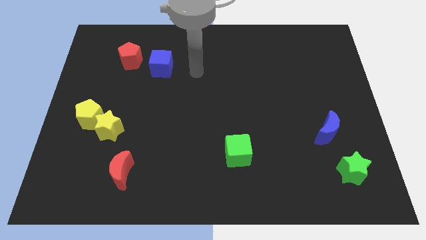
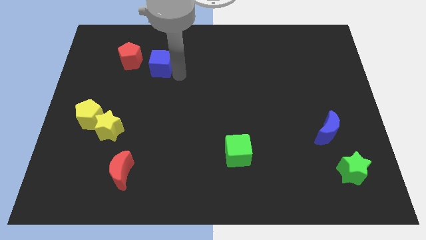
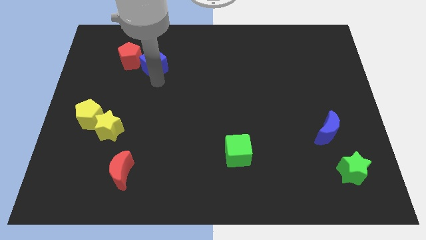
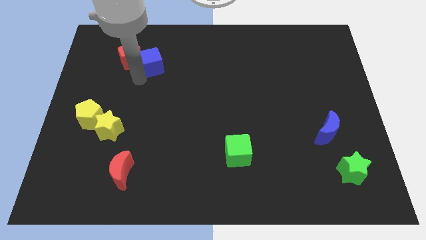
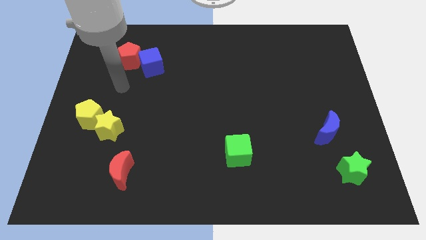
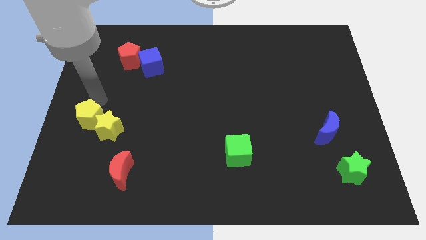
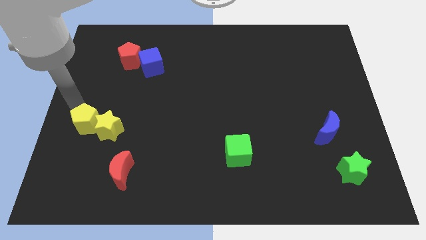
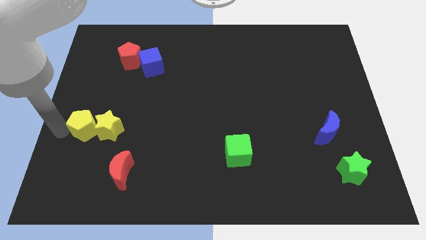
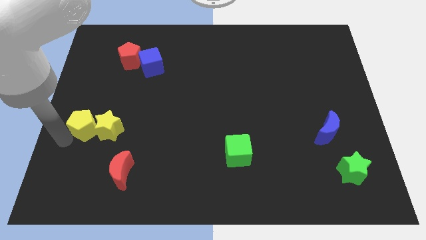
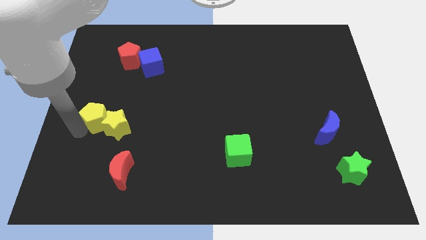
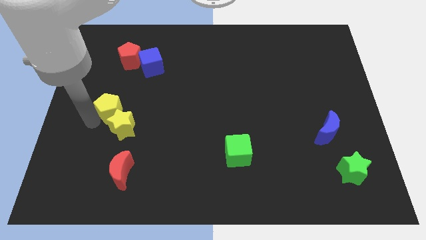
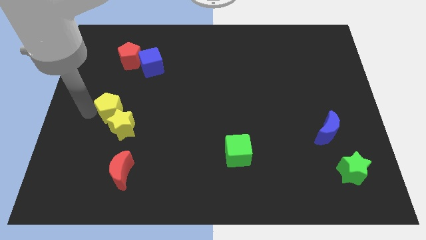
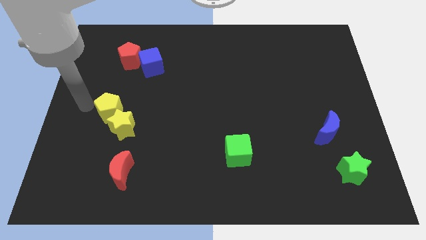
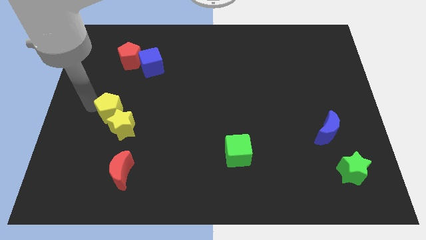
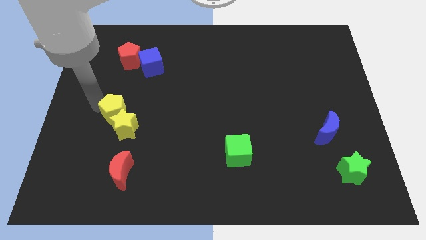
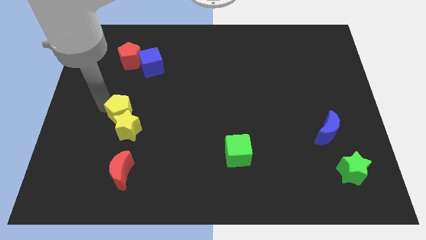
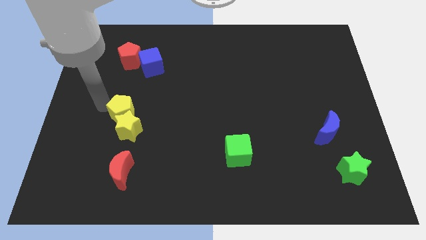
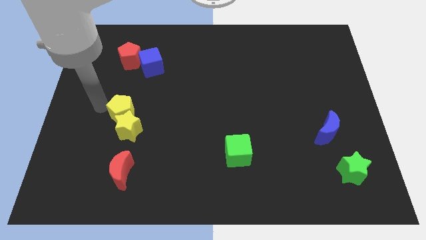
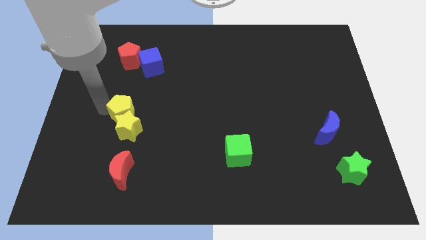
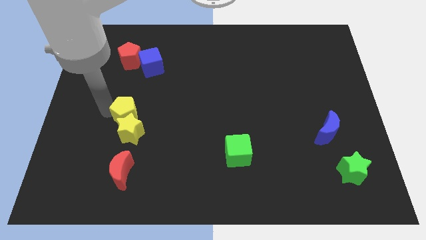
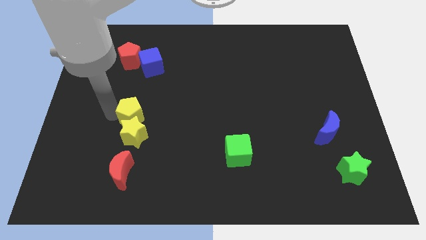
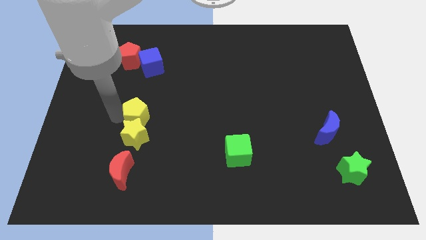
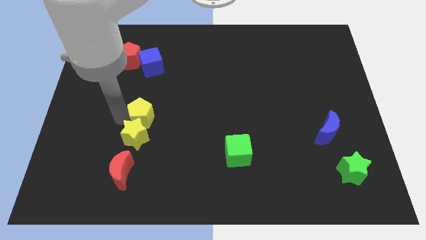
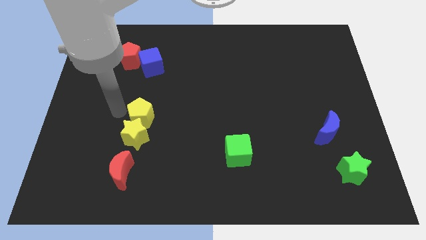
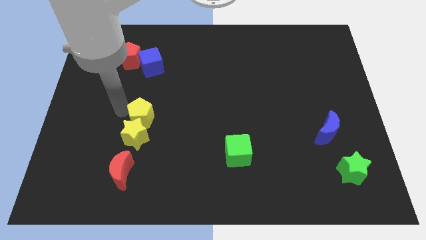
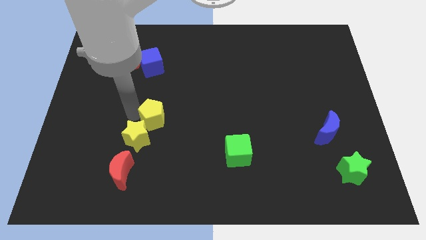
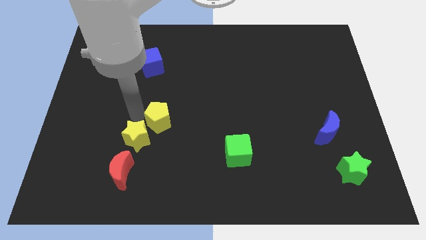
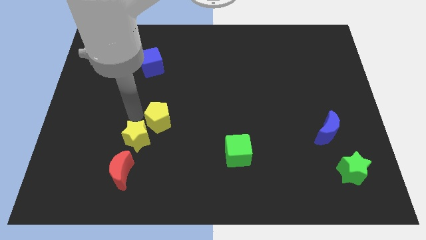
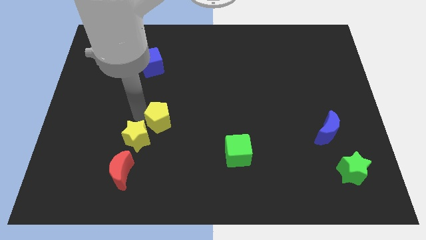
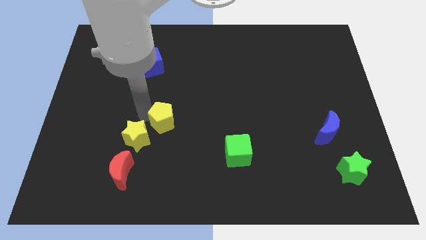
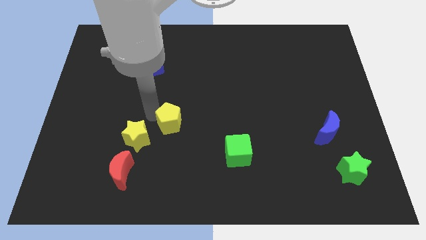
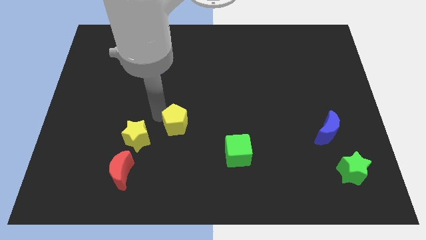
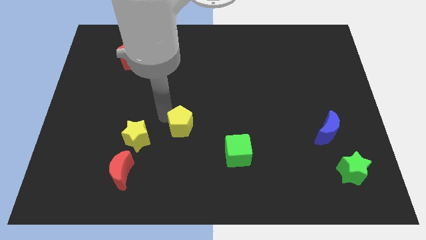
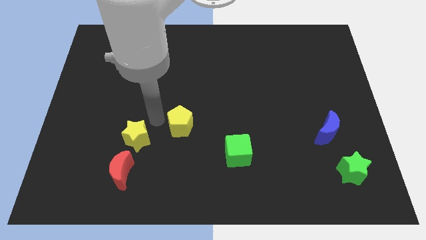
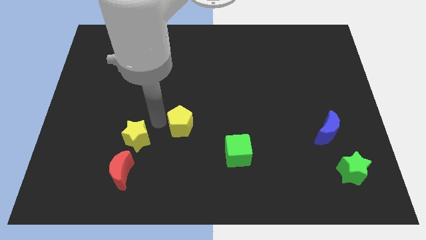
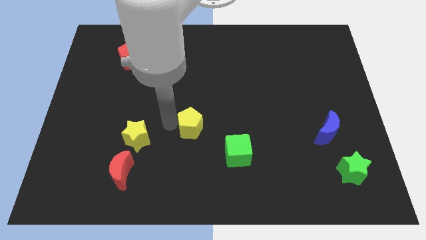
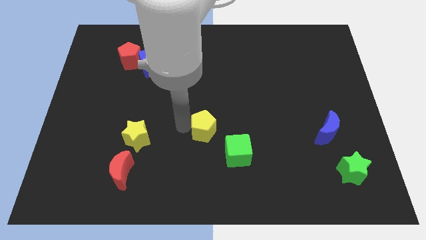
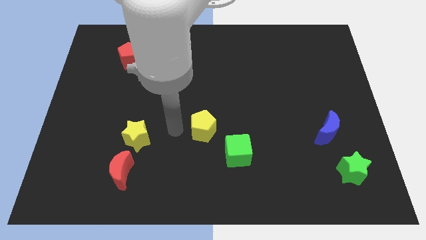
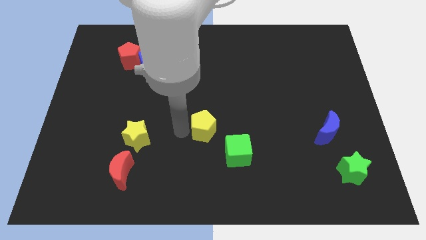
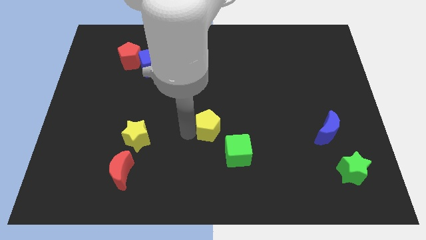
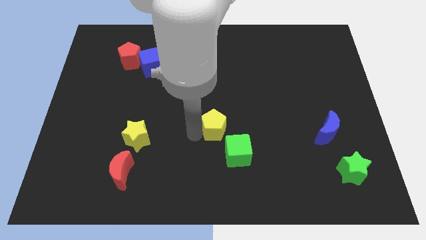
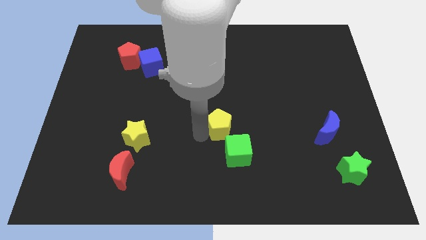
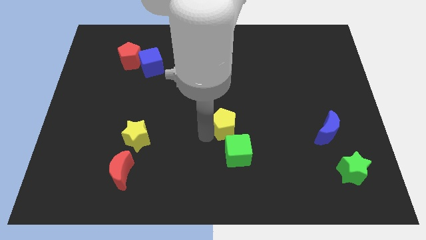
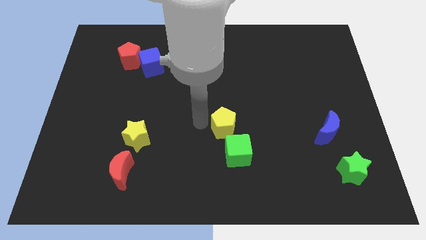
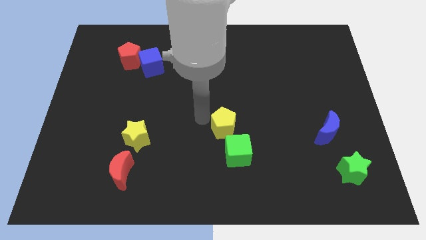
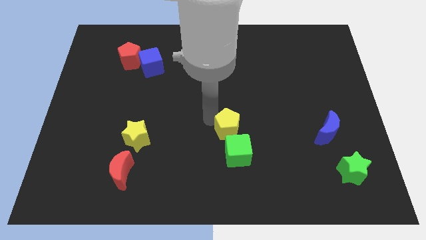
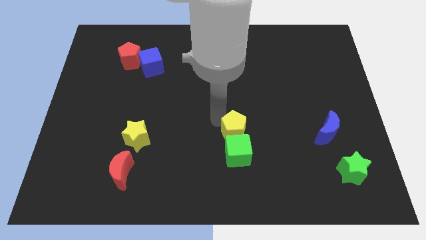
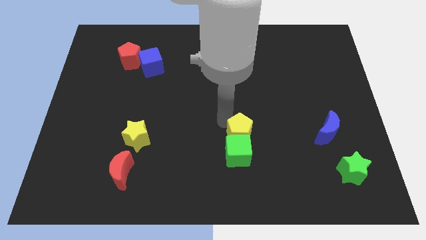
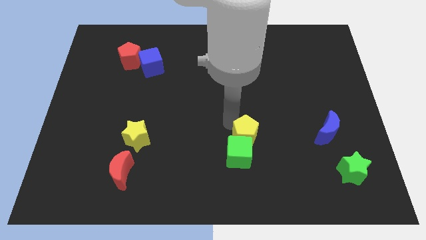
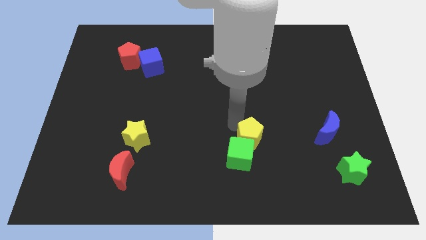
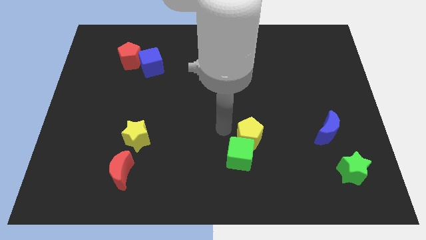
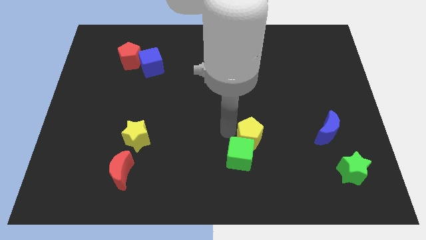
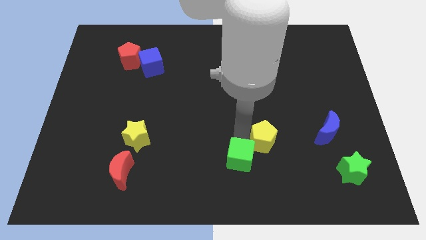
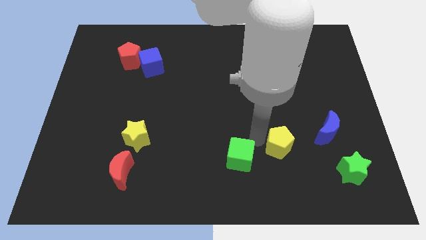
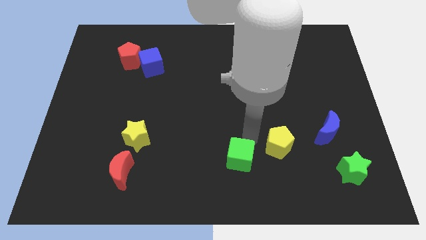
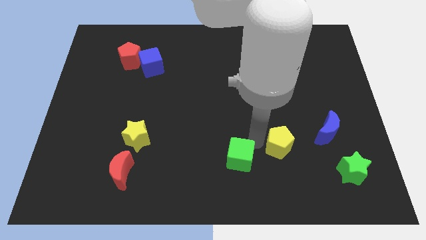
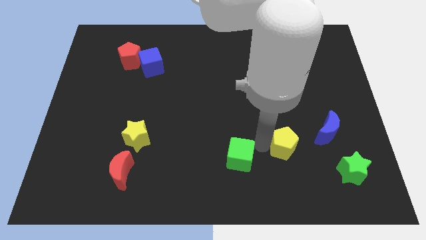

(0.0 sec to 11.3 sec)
put the yellow pentagon diagonally down and to the left of the blue moon

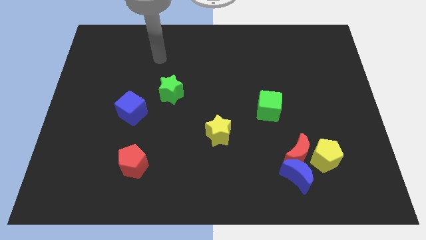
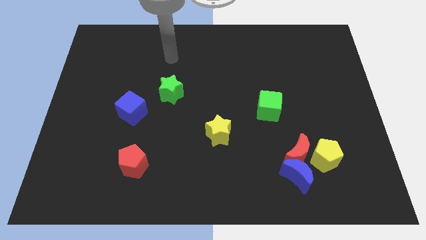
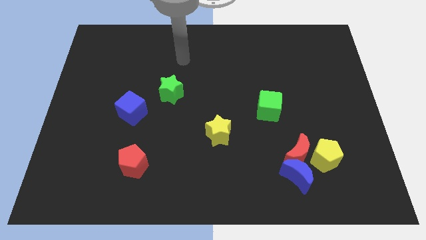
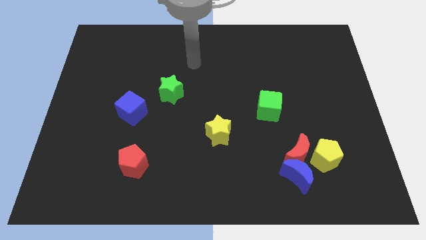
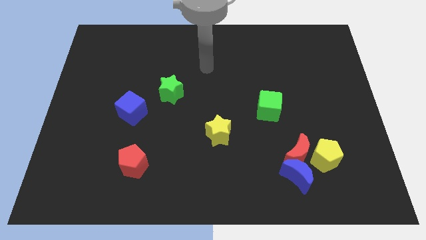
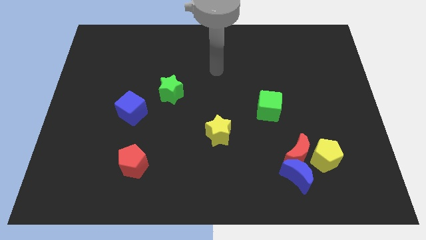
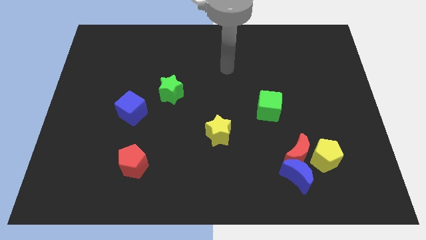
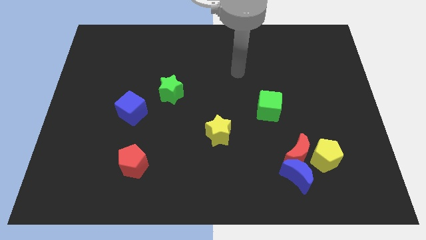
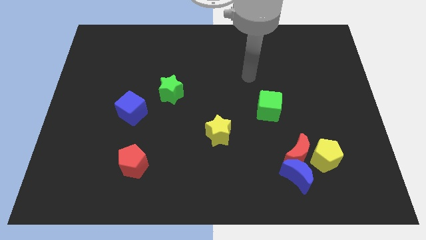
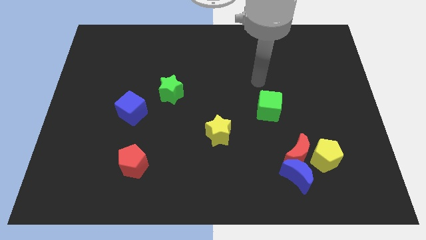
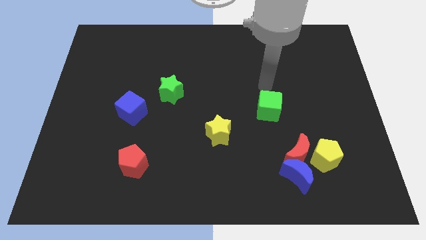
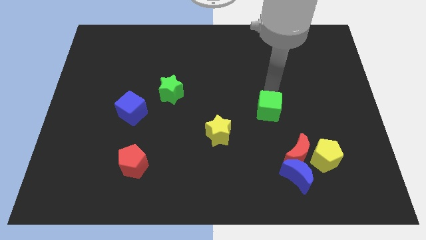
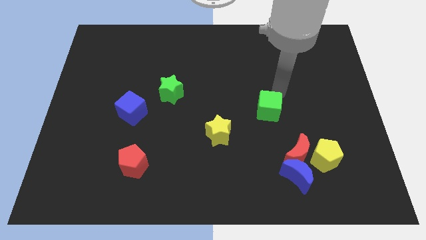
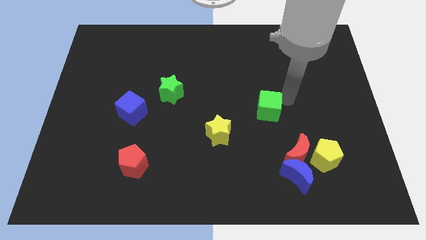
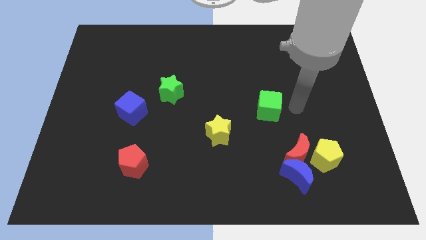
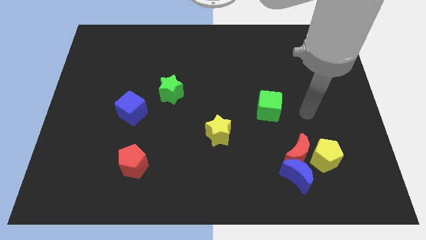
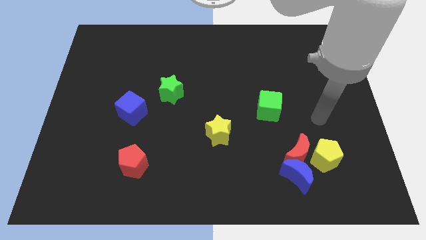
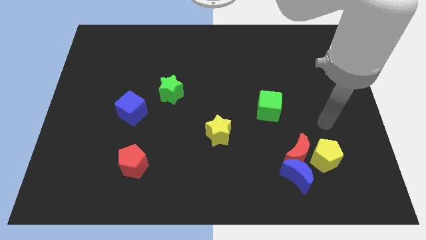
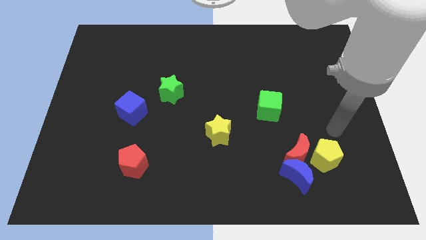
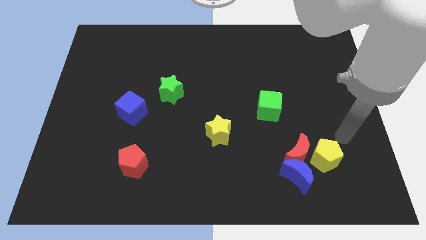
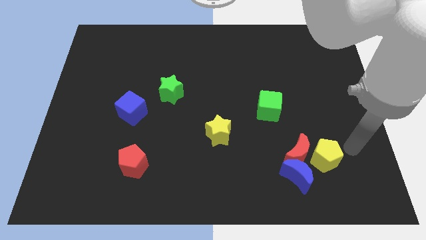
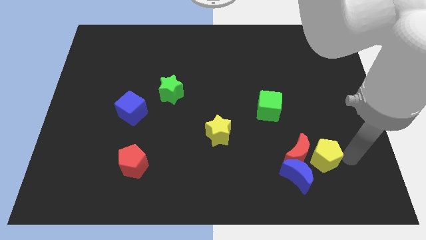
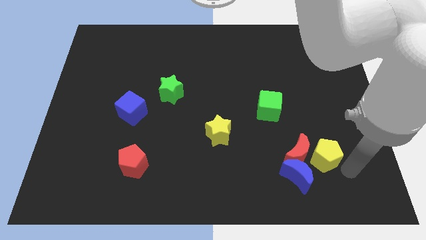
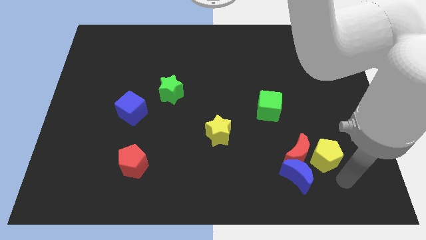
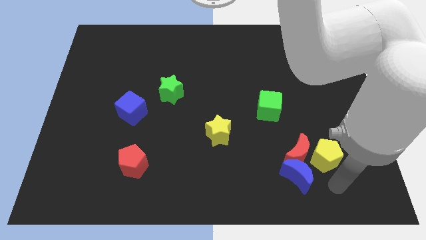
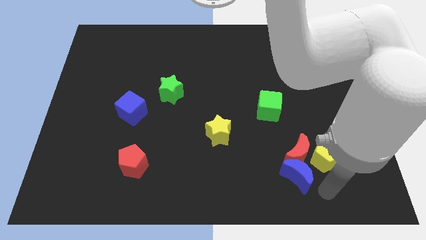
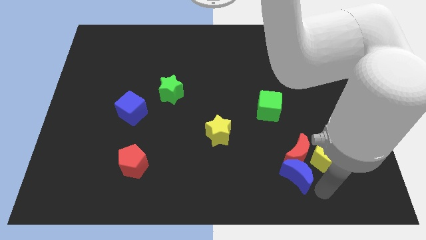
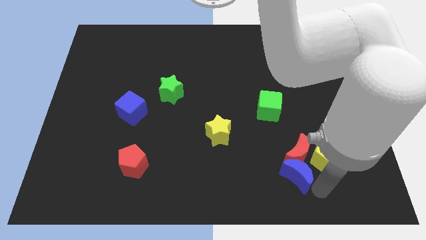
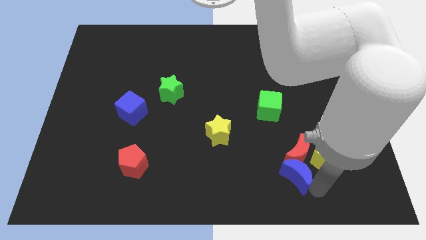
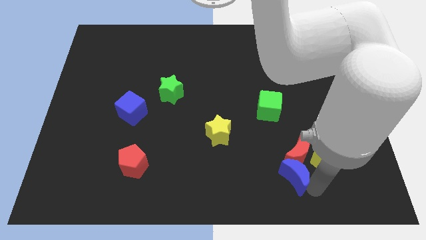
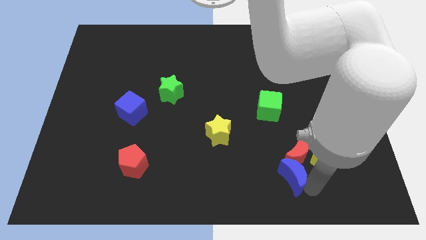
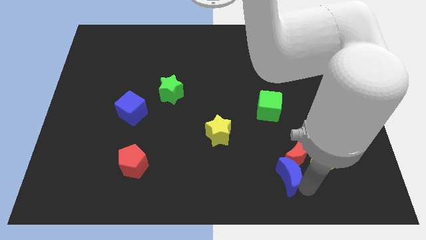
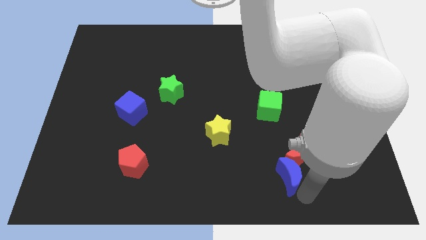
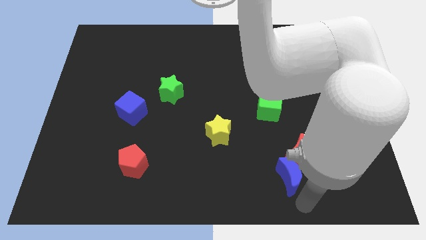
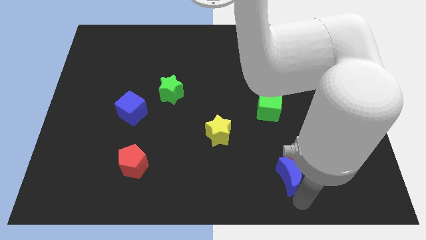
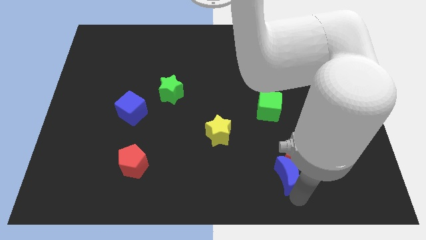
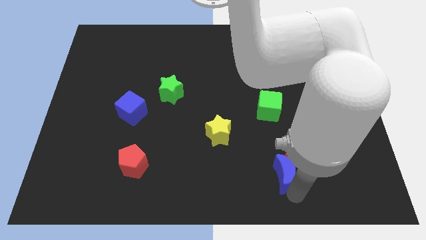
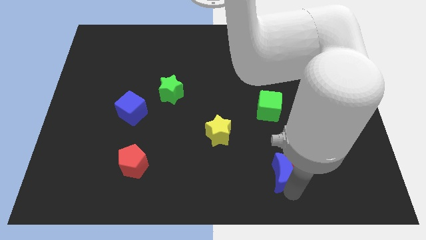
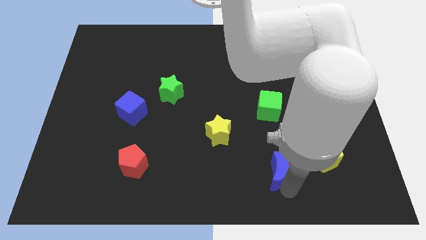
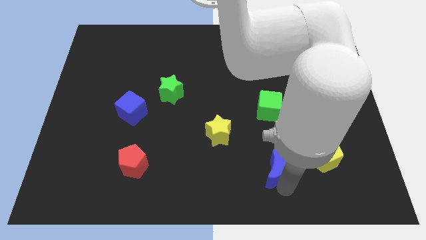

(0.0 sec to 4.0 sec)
push the blue moon below the green cube
